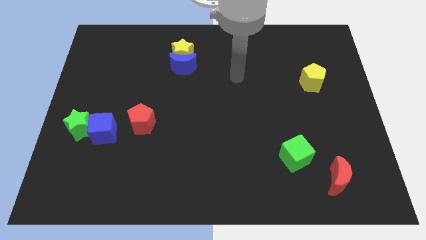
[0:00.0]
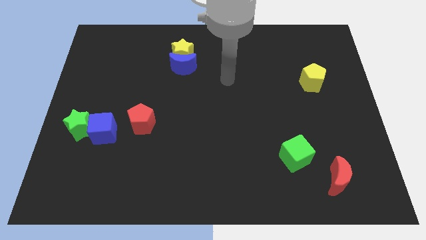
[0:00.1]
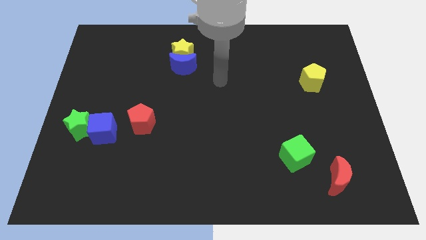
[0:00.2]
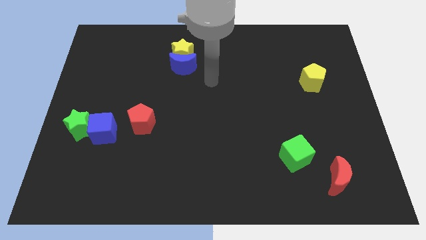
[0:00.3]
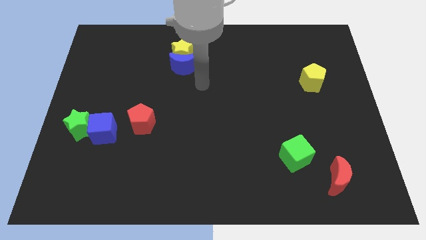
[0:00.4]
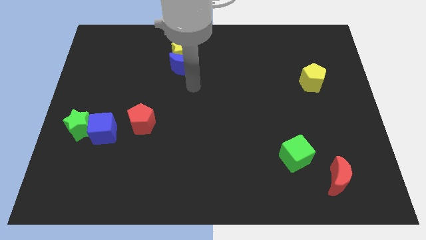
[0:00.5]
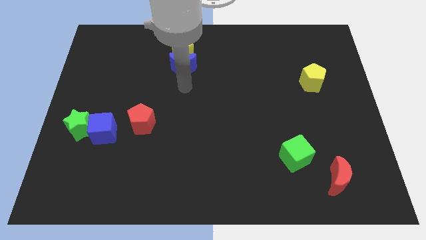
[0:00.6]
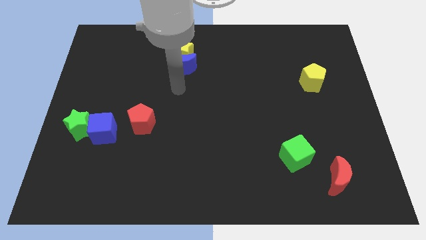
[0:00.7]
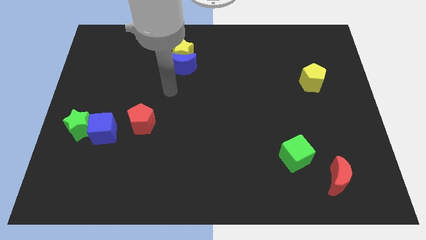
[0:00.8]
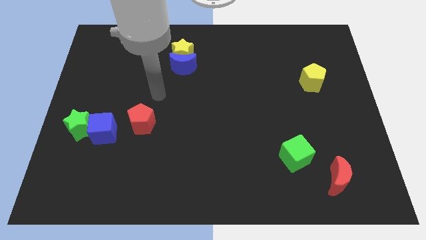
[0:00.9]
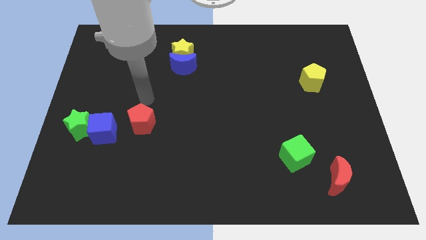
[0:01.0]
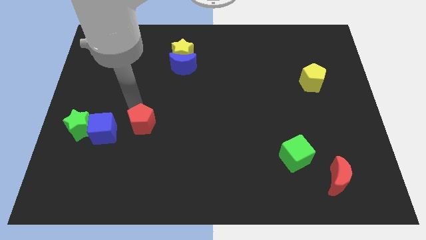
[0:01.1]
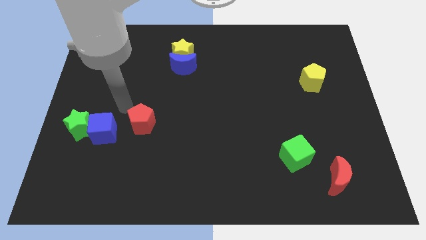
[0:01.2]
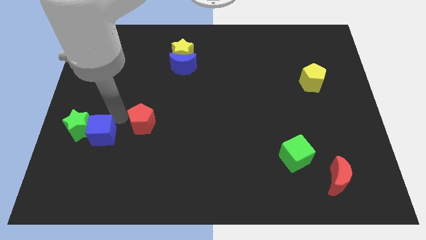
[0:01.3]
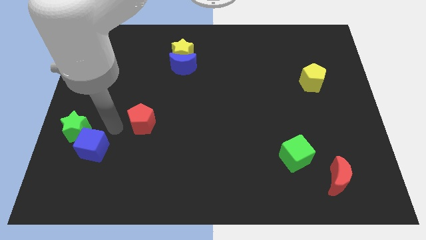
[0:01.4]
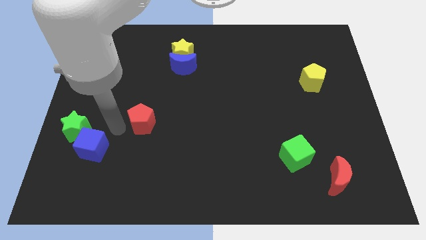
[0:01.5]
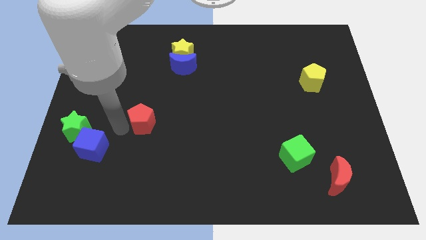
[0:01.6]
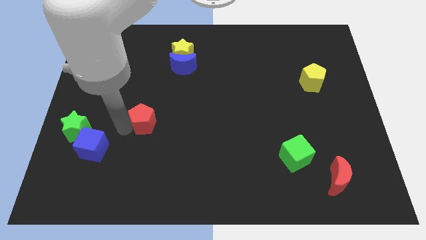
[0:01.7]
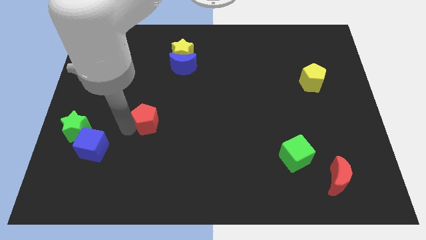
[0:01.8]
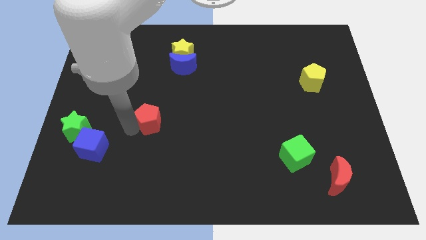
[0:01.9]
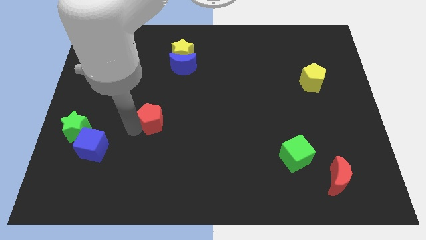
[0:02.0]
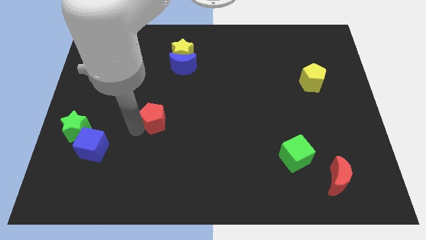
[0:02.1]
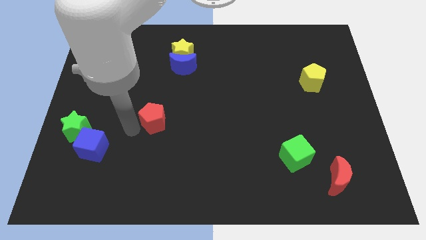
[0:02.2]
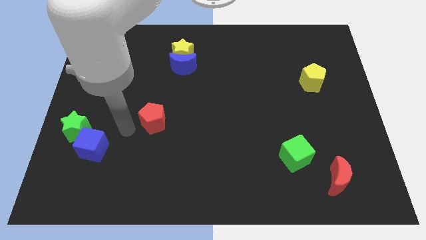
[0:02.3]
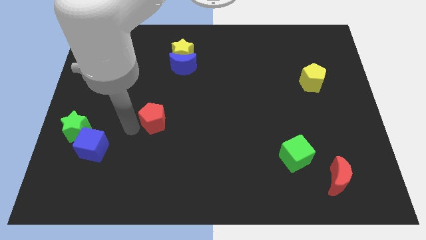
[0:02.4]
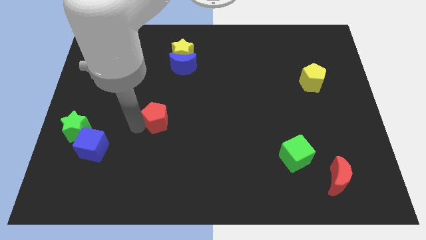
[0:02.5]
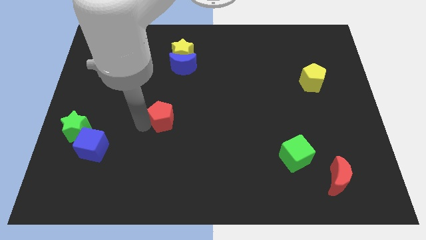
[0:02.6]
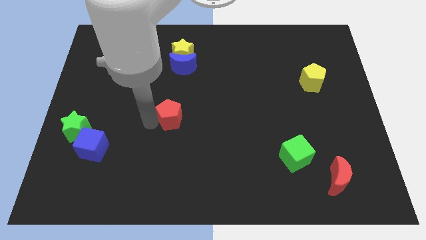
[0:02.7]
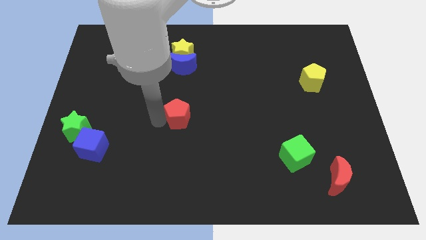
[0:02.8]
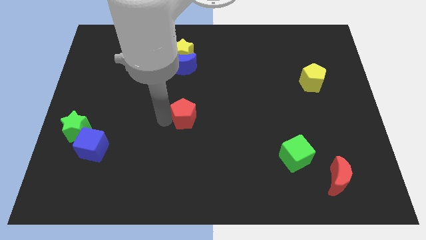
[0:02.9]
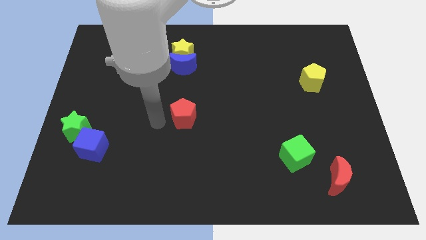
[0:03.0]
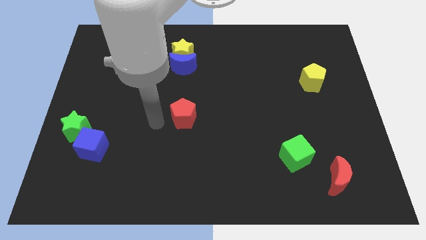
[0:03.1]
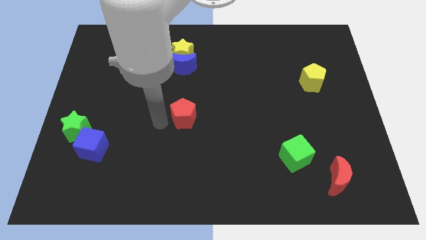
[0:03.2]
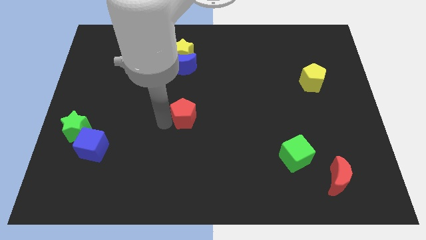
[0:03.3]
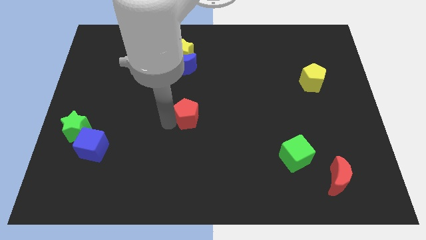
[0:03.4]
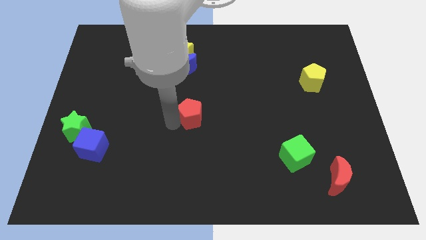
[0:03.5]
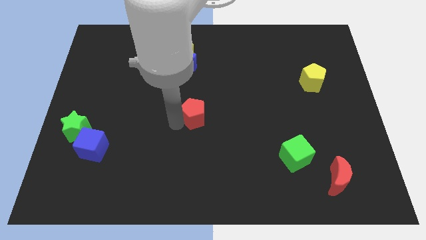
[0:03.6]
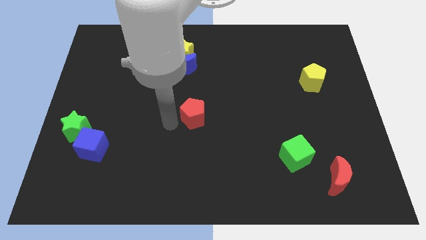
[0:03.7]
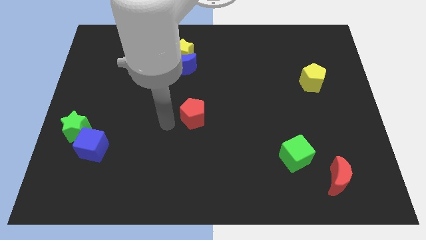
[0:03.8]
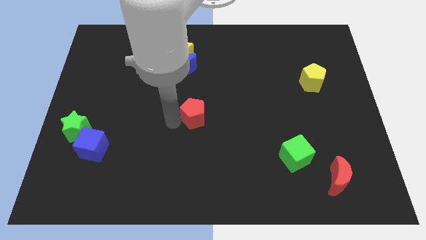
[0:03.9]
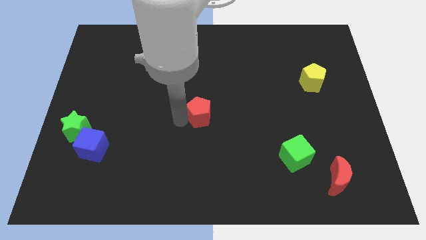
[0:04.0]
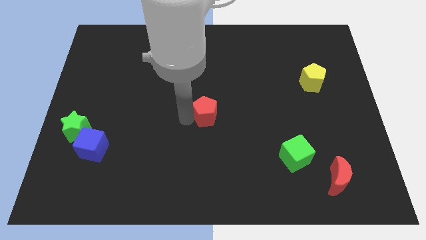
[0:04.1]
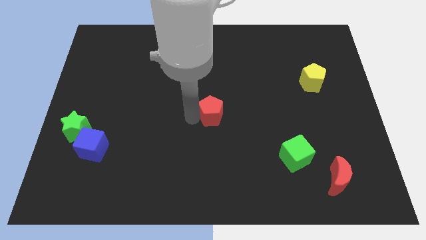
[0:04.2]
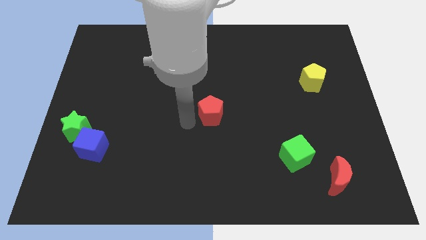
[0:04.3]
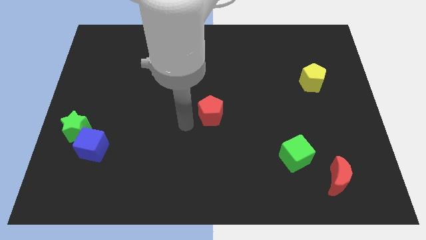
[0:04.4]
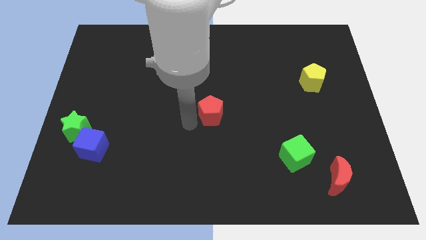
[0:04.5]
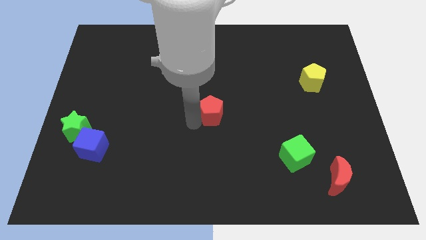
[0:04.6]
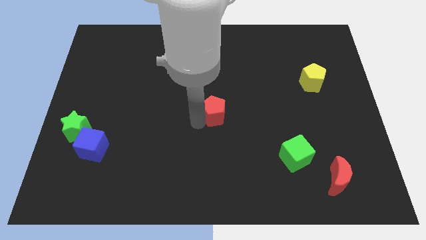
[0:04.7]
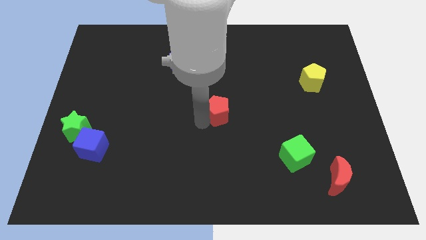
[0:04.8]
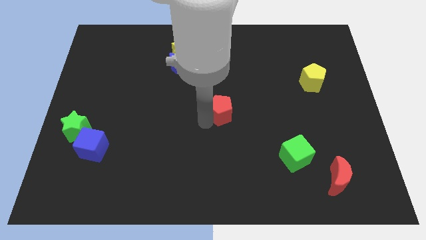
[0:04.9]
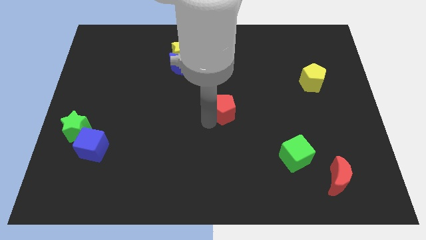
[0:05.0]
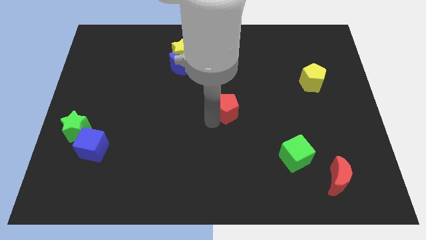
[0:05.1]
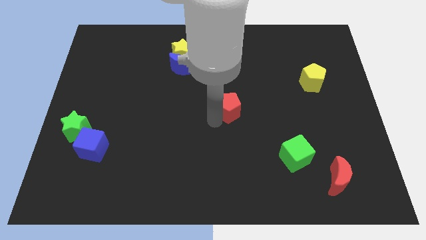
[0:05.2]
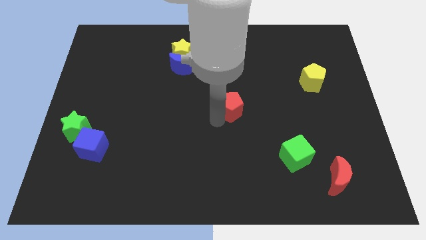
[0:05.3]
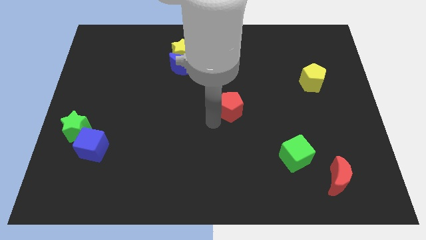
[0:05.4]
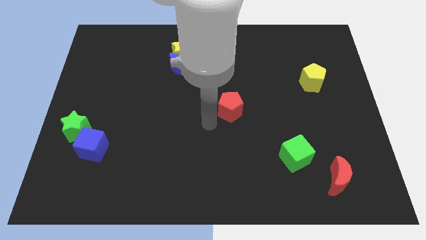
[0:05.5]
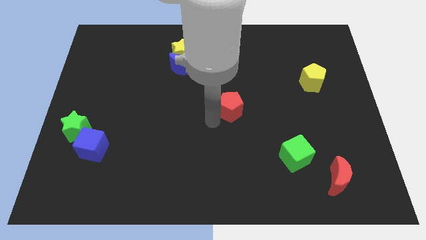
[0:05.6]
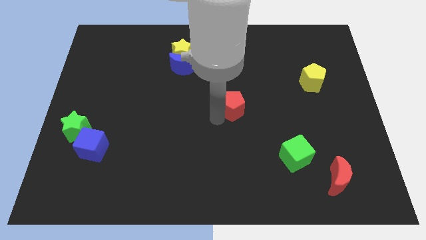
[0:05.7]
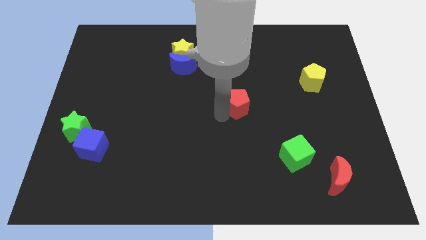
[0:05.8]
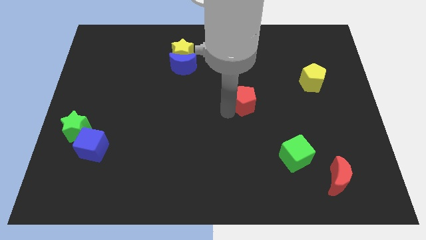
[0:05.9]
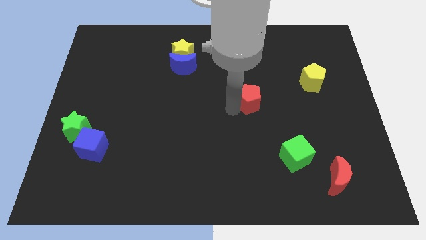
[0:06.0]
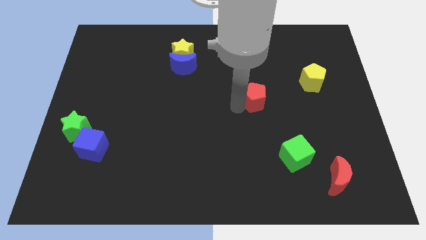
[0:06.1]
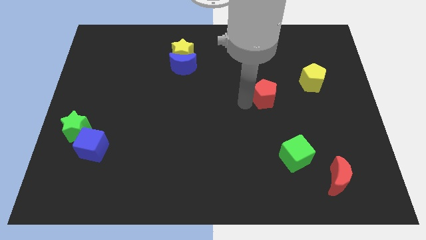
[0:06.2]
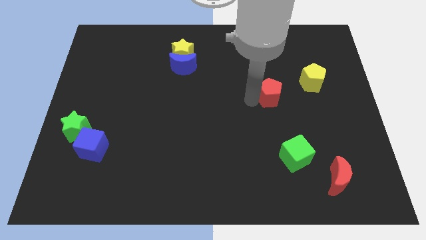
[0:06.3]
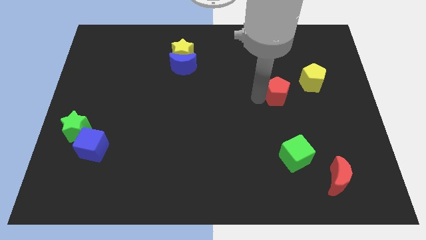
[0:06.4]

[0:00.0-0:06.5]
move the red pentagon diagonally down and to the left of the yellow pentagon
